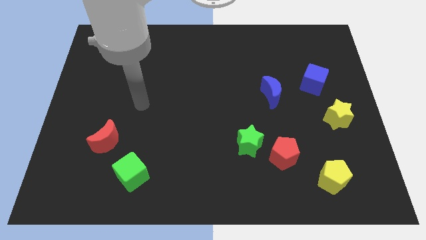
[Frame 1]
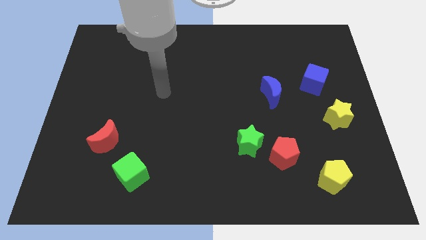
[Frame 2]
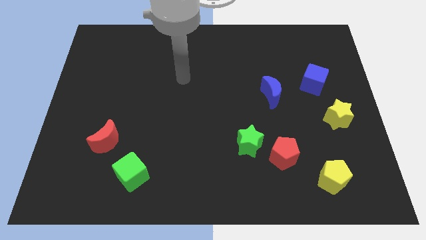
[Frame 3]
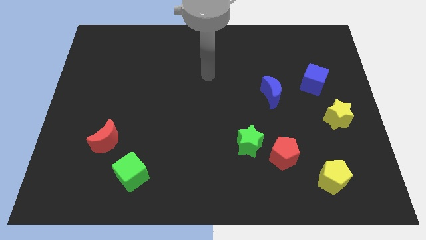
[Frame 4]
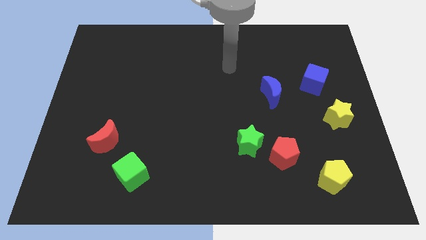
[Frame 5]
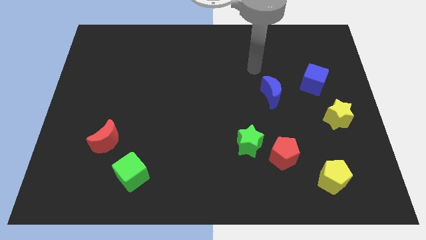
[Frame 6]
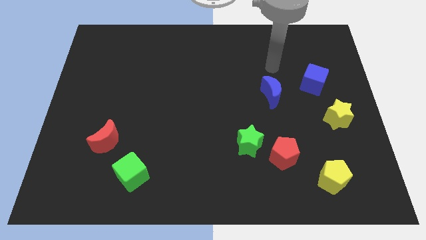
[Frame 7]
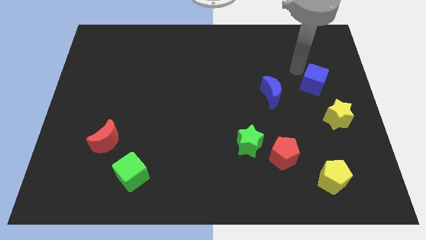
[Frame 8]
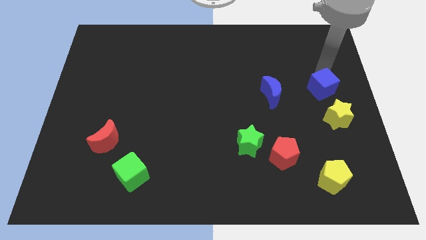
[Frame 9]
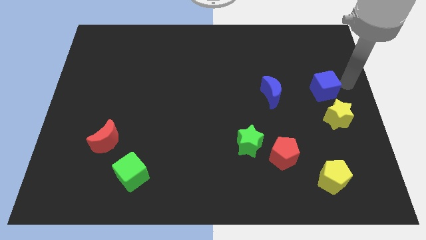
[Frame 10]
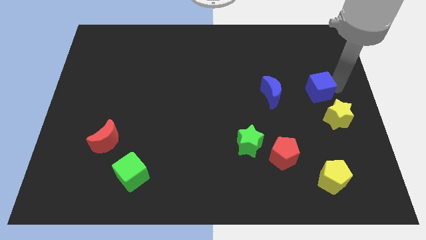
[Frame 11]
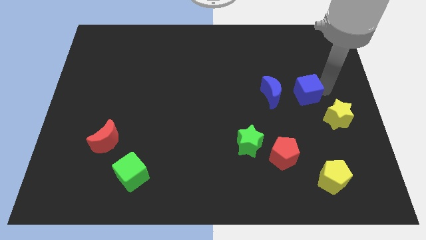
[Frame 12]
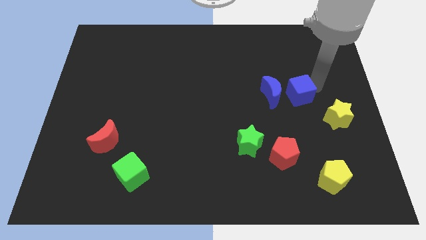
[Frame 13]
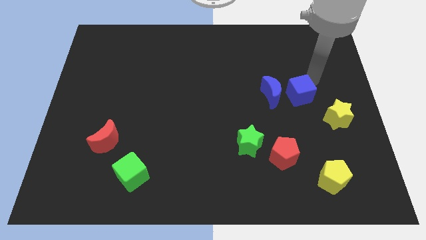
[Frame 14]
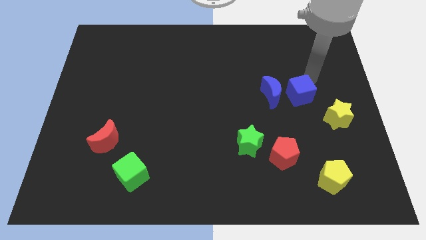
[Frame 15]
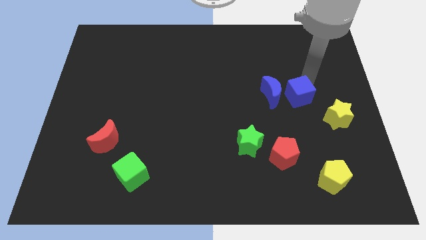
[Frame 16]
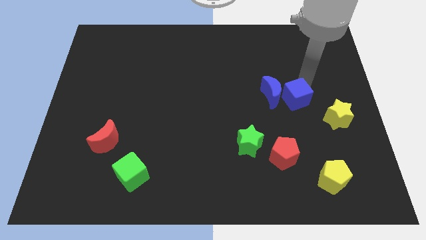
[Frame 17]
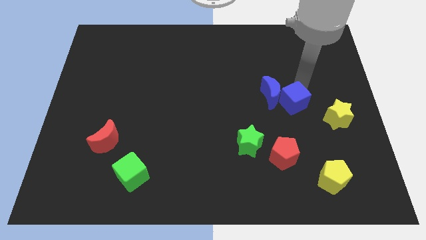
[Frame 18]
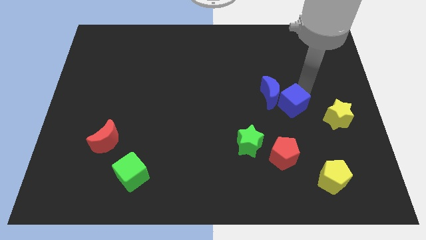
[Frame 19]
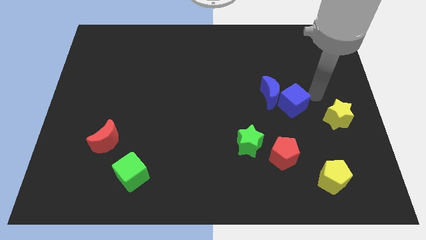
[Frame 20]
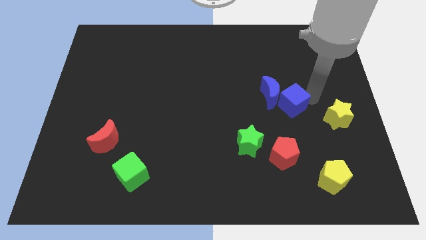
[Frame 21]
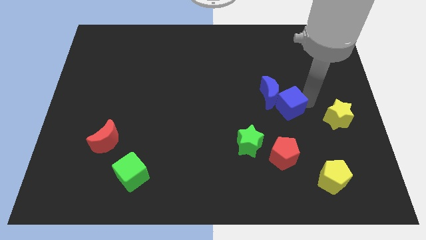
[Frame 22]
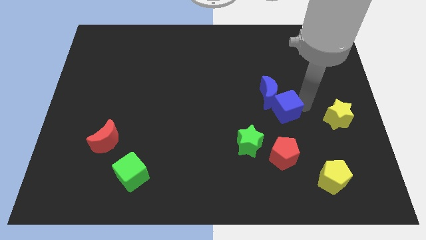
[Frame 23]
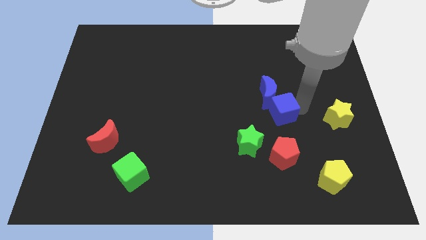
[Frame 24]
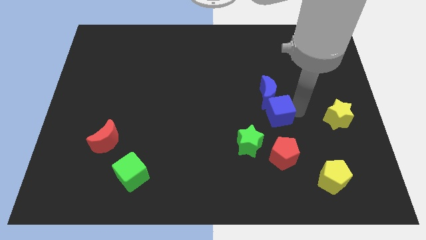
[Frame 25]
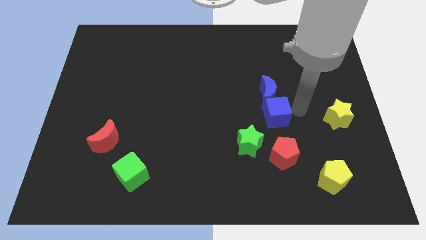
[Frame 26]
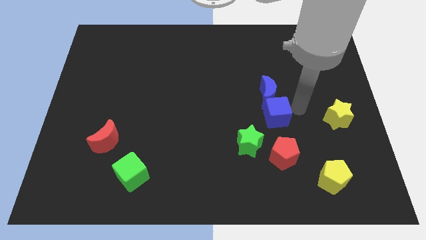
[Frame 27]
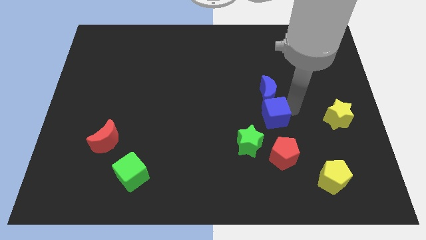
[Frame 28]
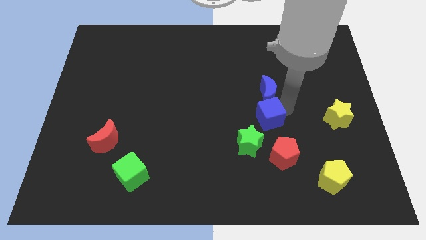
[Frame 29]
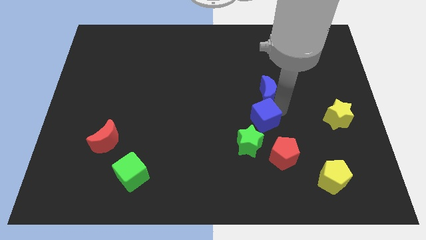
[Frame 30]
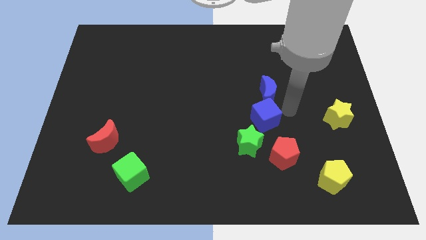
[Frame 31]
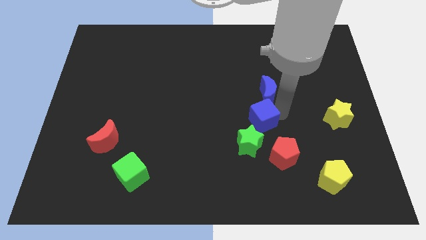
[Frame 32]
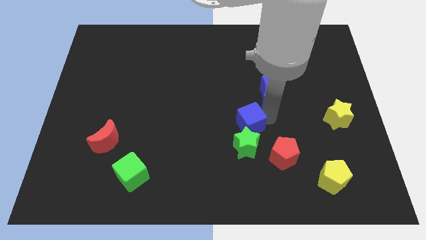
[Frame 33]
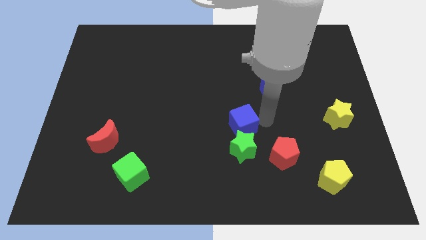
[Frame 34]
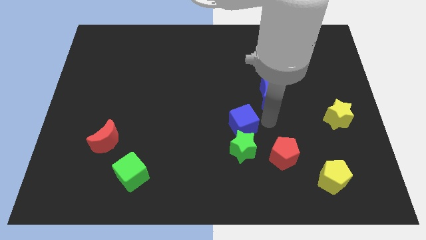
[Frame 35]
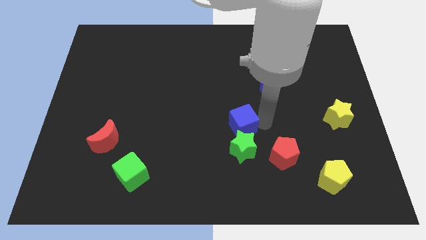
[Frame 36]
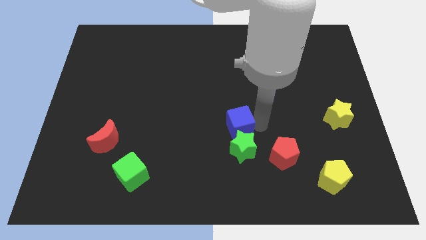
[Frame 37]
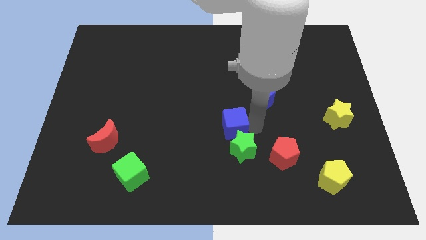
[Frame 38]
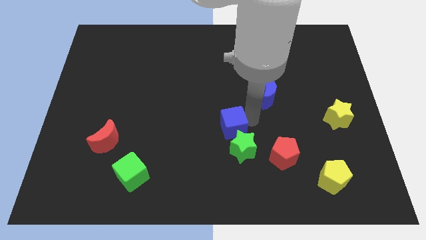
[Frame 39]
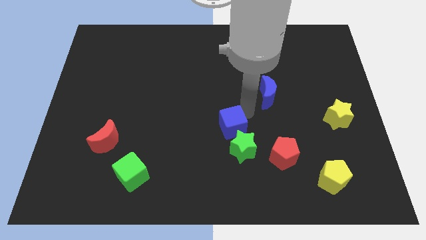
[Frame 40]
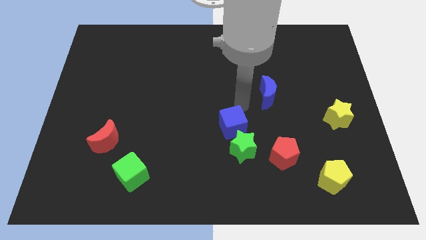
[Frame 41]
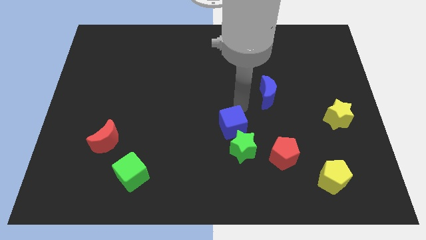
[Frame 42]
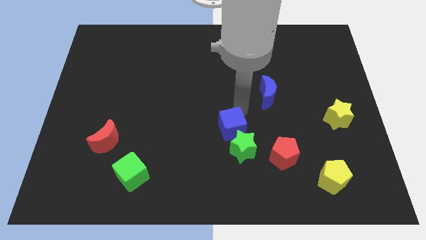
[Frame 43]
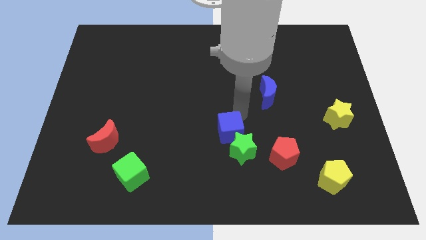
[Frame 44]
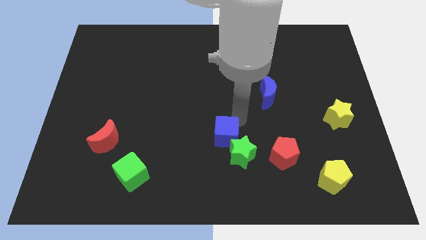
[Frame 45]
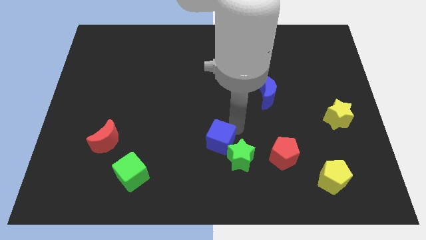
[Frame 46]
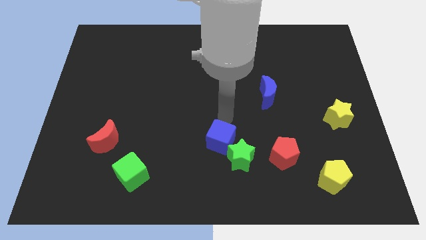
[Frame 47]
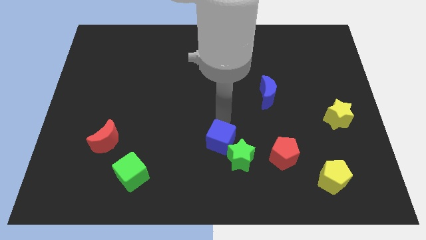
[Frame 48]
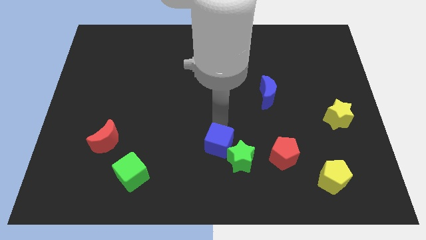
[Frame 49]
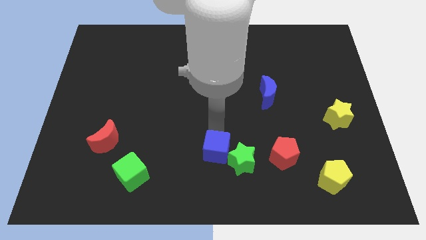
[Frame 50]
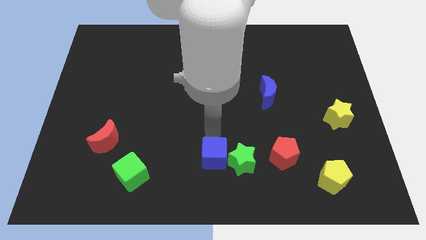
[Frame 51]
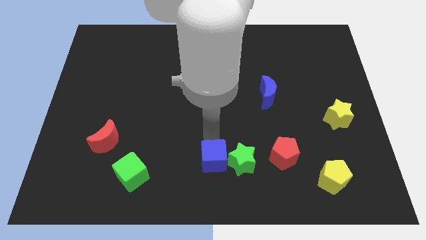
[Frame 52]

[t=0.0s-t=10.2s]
move the blue cube diagonally down and to the left of the green star

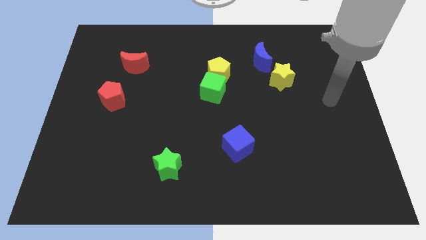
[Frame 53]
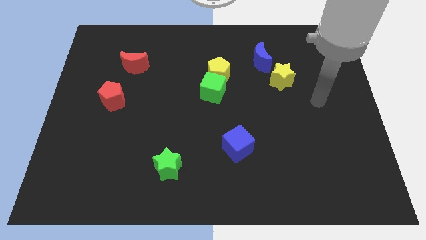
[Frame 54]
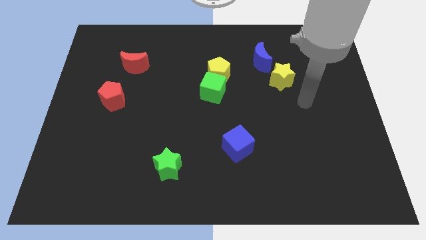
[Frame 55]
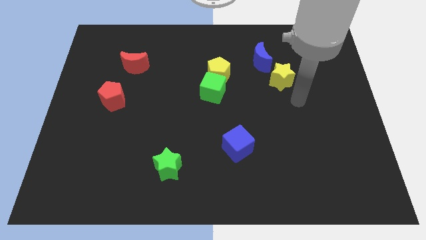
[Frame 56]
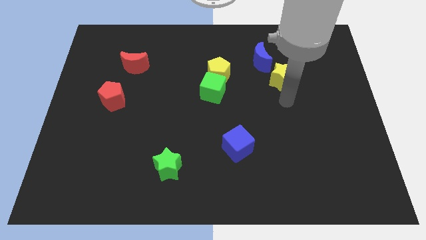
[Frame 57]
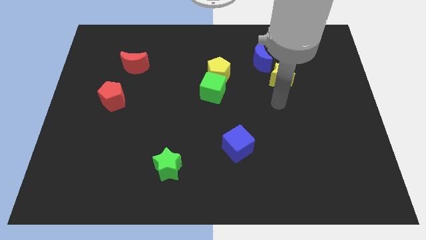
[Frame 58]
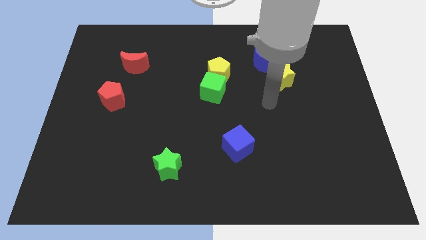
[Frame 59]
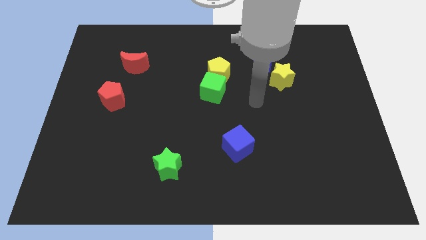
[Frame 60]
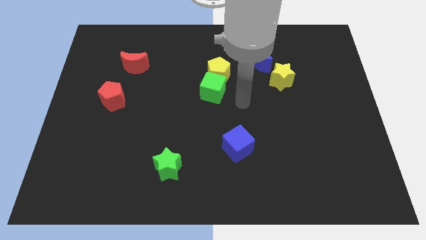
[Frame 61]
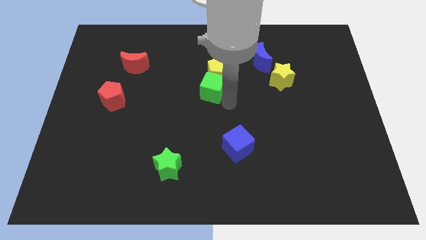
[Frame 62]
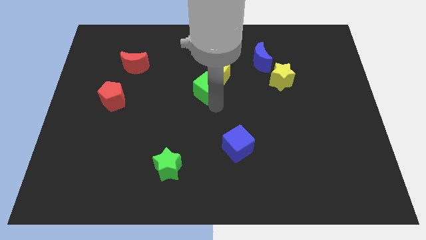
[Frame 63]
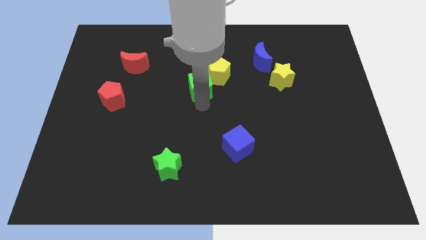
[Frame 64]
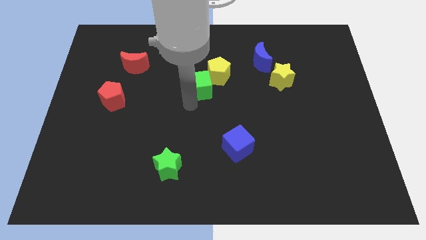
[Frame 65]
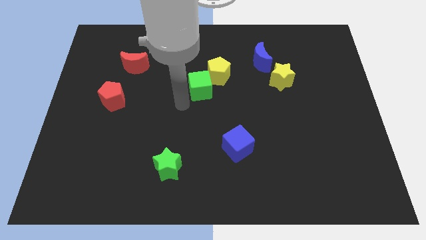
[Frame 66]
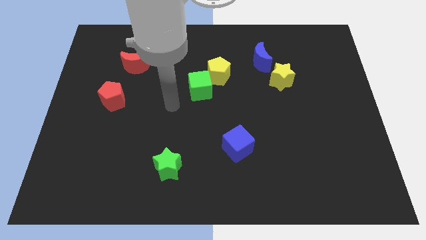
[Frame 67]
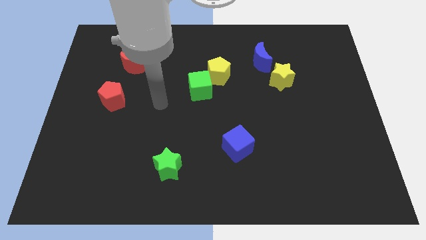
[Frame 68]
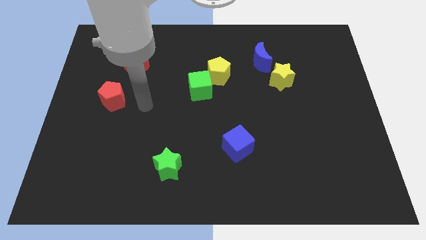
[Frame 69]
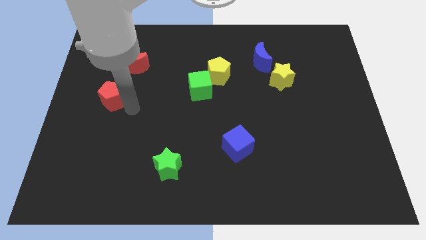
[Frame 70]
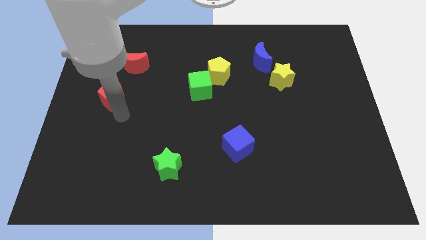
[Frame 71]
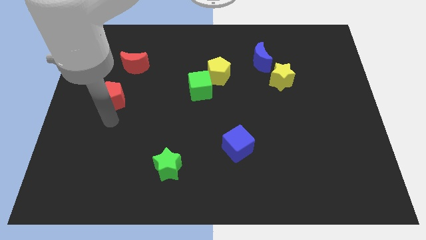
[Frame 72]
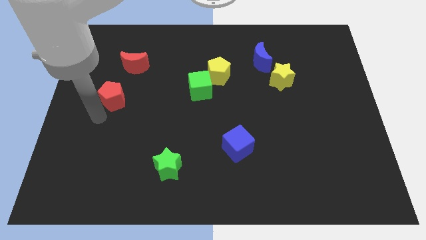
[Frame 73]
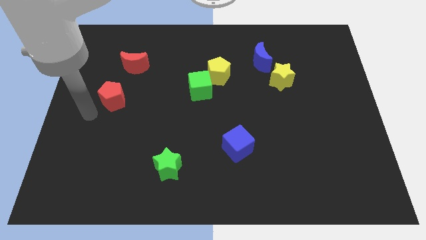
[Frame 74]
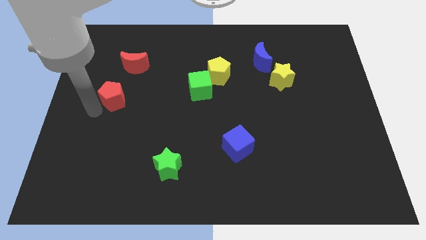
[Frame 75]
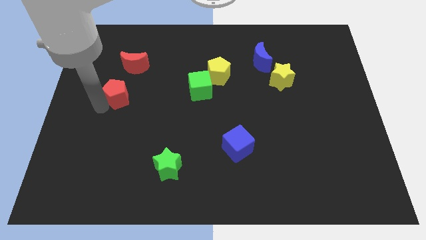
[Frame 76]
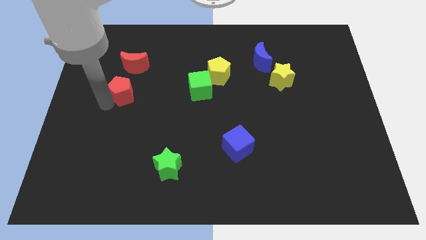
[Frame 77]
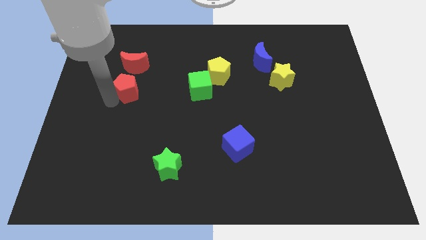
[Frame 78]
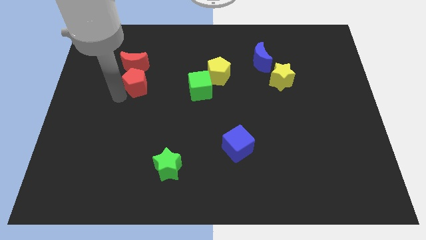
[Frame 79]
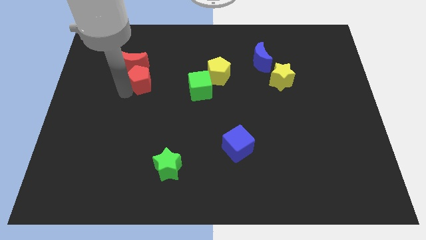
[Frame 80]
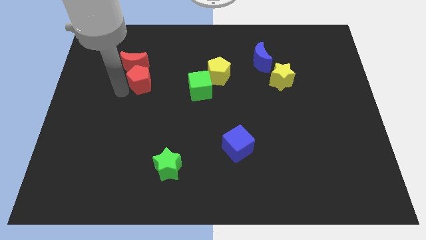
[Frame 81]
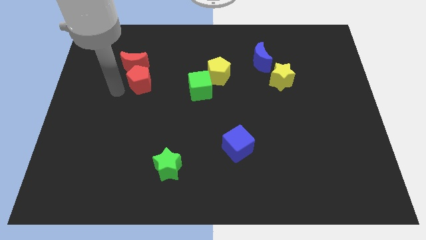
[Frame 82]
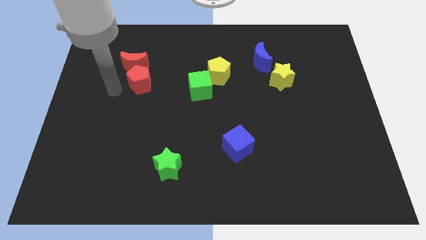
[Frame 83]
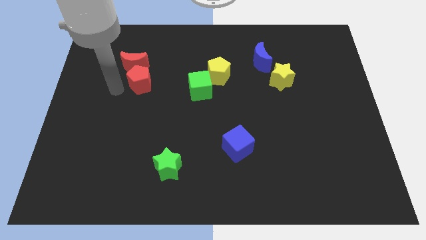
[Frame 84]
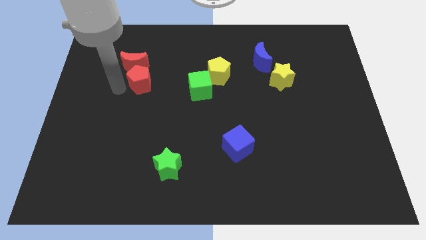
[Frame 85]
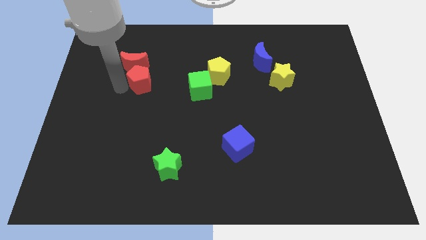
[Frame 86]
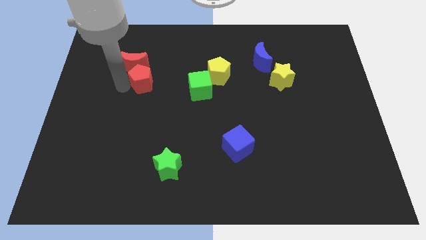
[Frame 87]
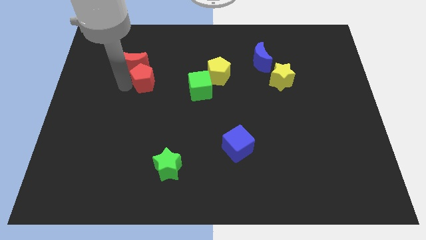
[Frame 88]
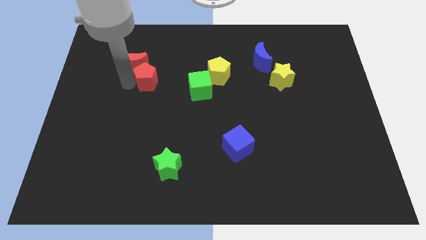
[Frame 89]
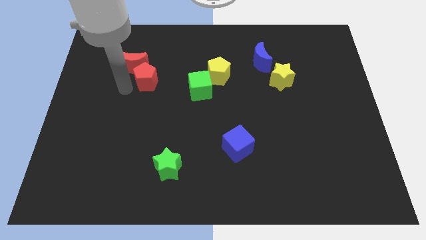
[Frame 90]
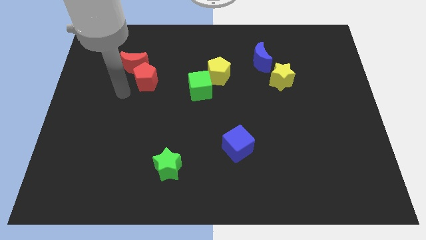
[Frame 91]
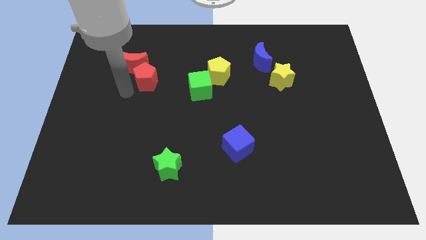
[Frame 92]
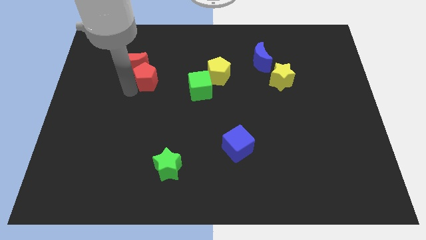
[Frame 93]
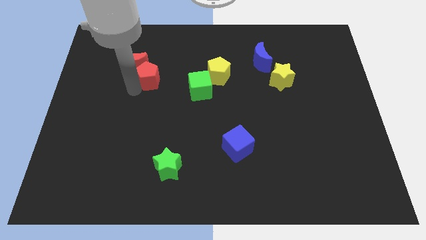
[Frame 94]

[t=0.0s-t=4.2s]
push the red pentagon just right of the red moon
